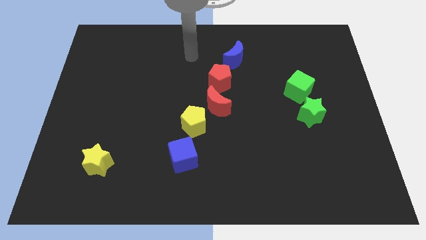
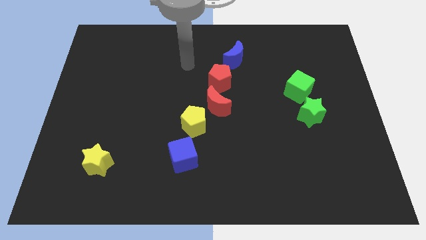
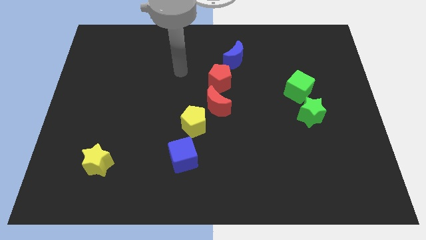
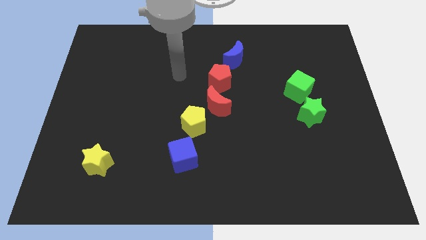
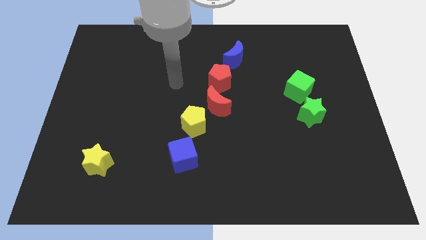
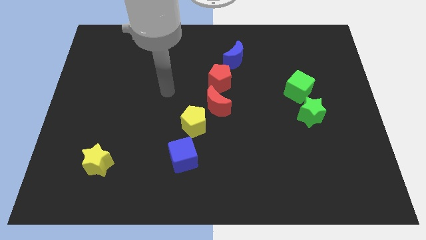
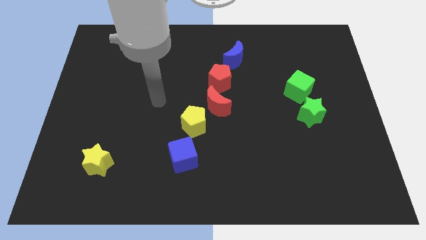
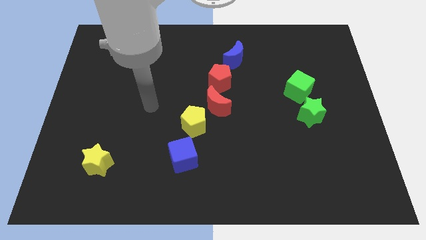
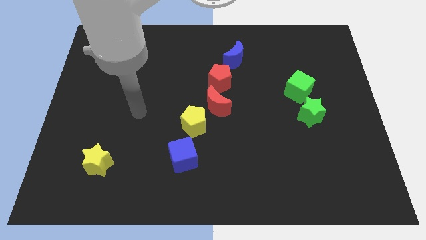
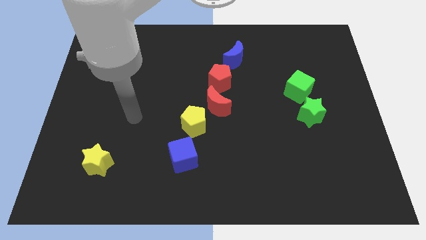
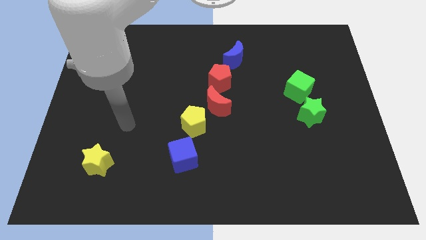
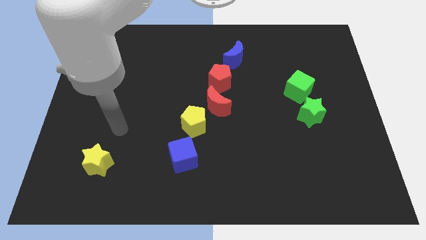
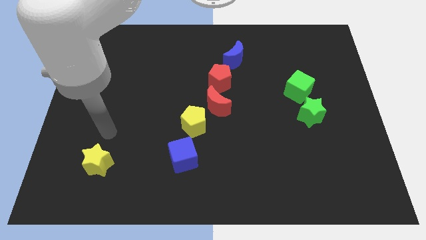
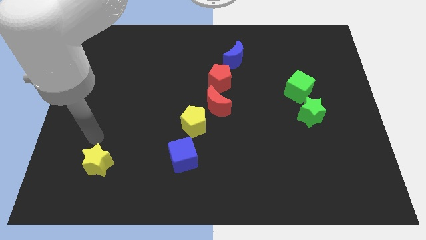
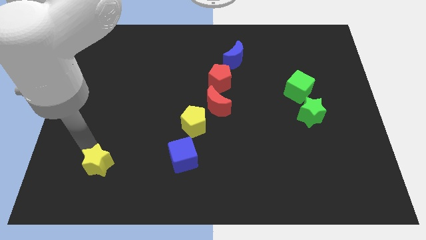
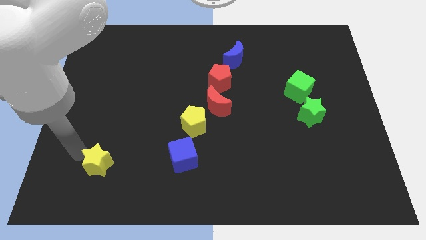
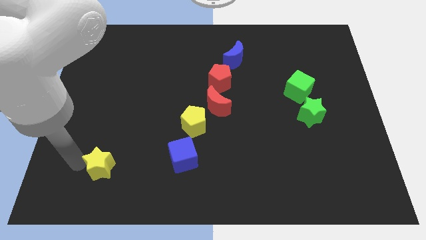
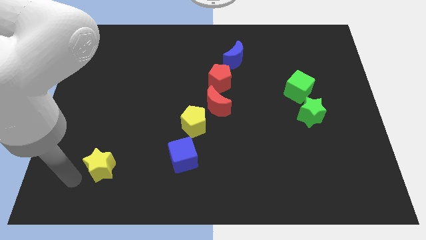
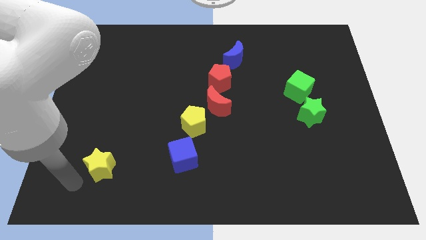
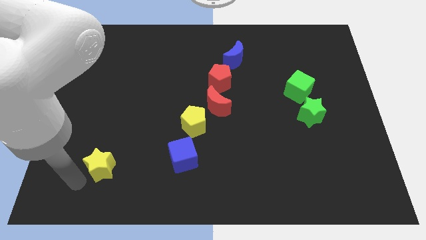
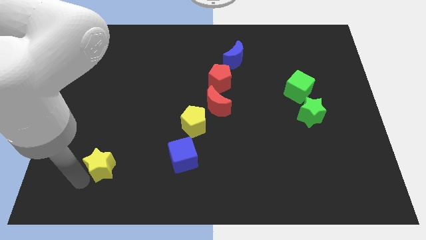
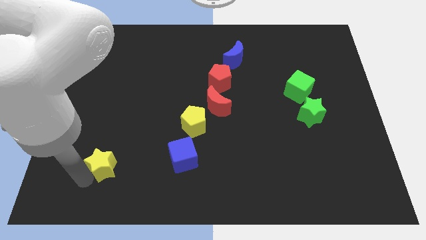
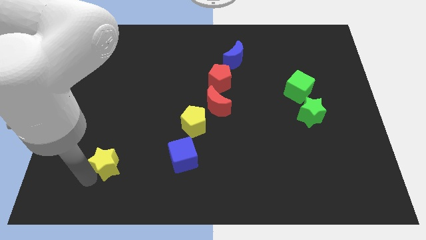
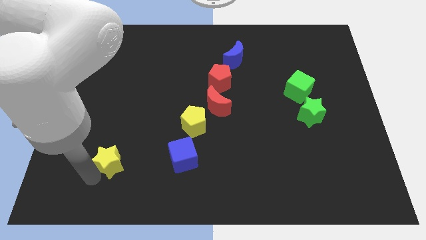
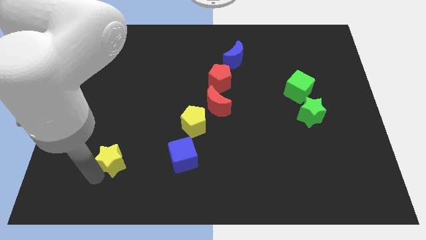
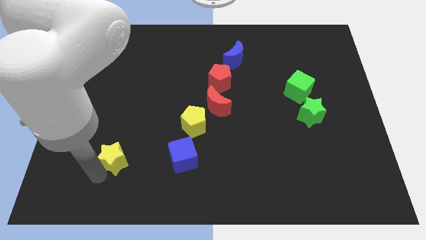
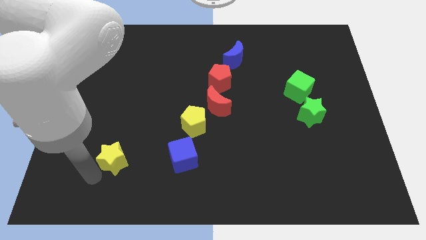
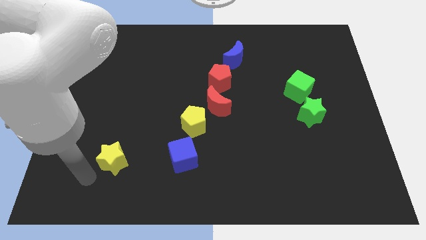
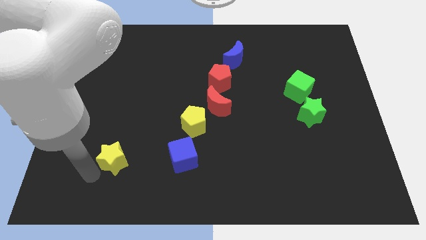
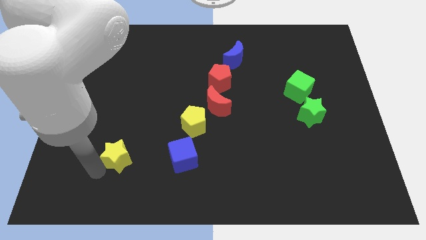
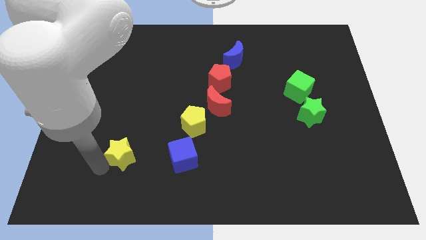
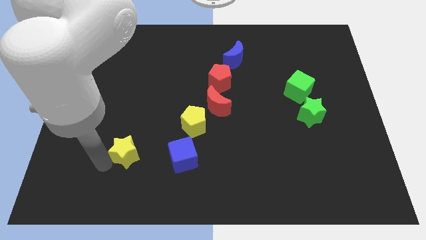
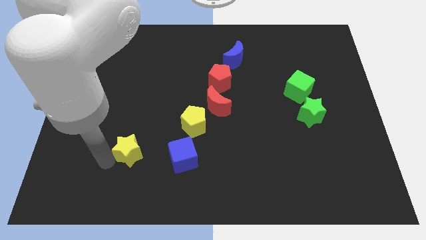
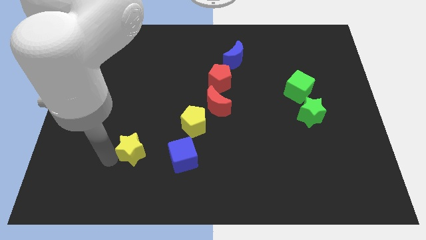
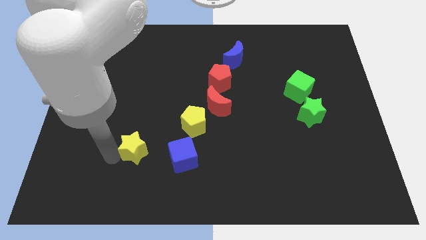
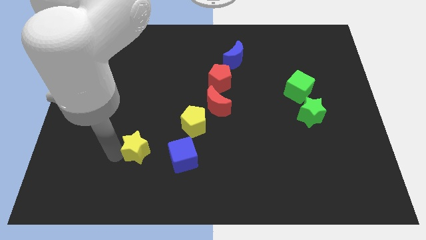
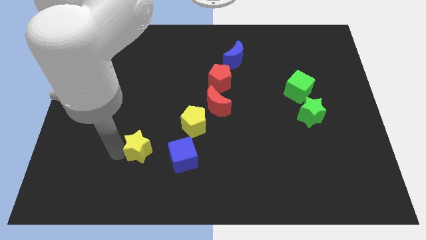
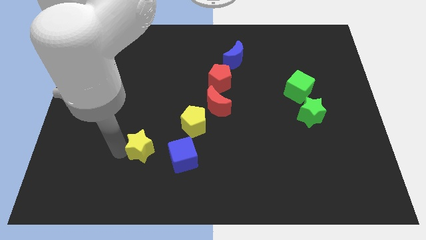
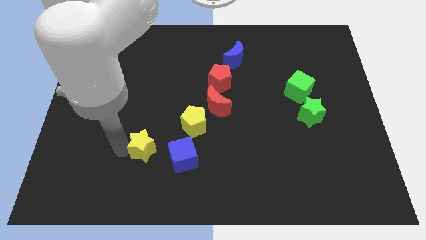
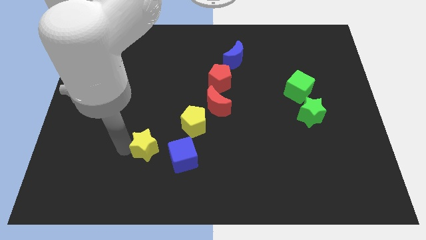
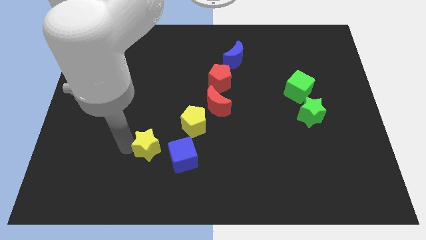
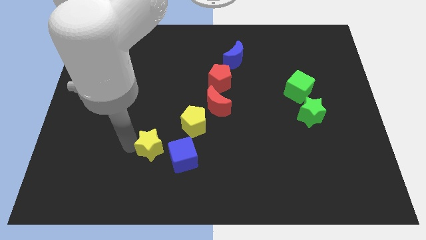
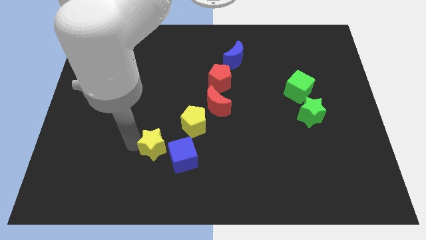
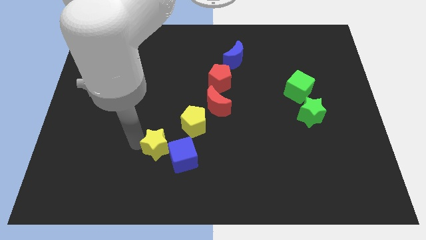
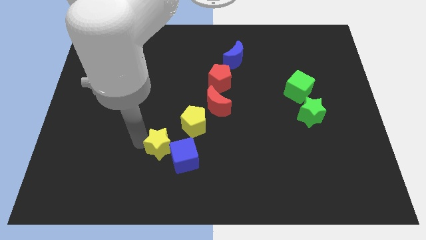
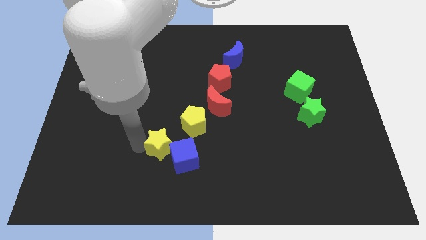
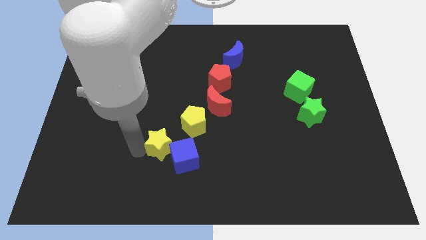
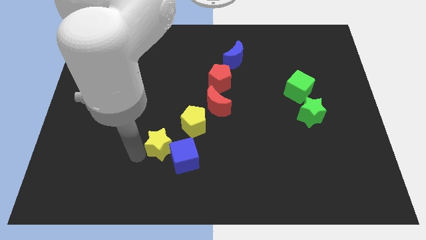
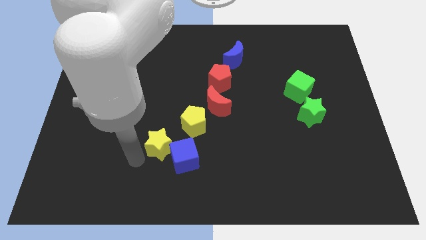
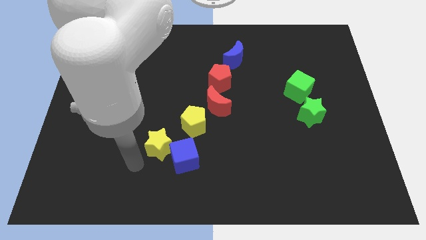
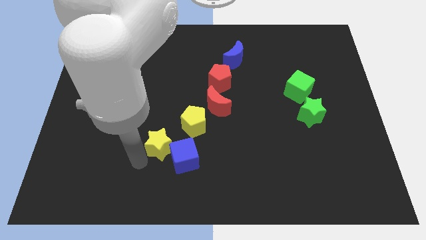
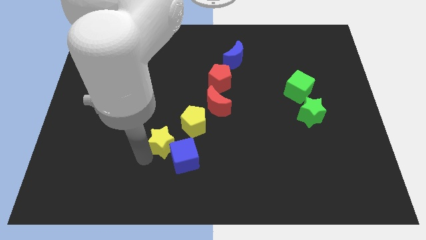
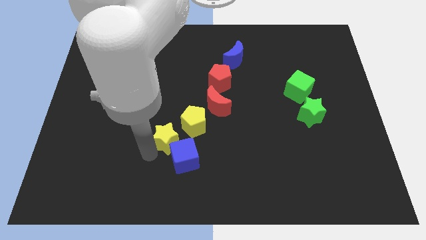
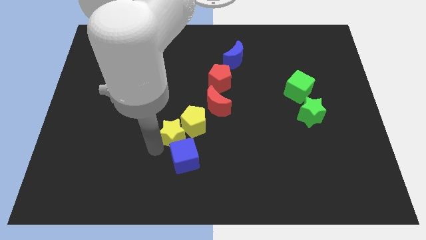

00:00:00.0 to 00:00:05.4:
slide the yellow star to the yellow pentagon

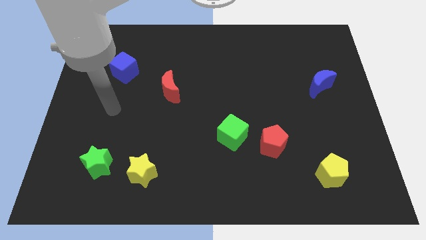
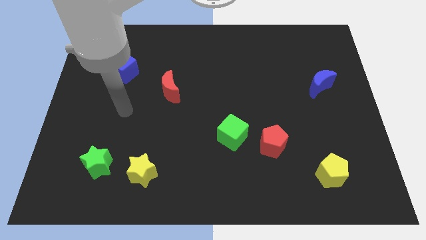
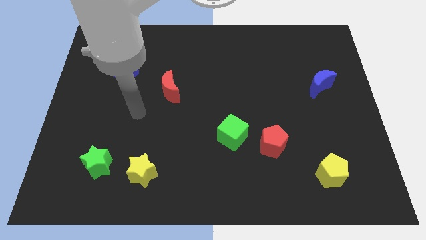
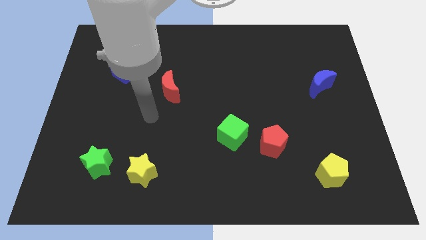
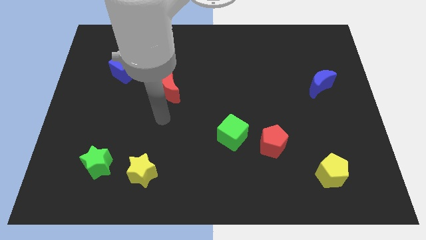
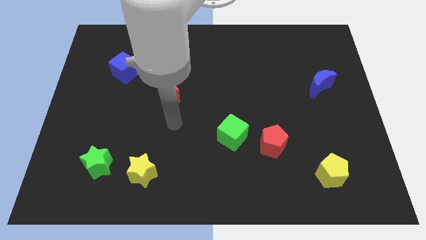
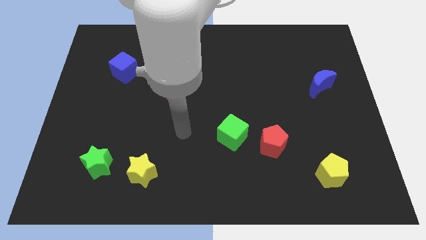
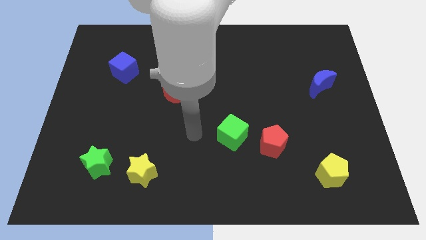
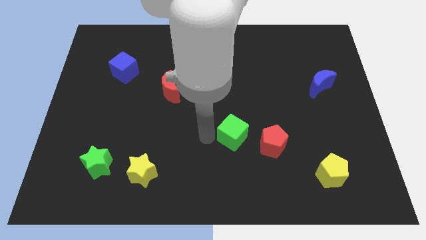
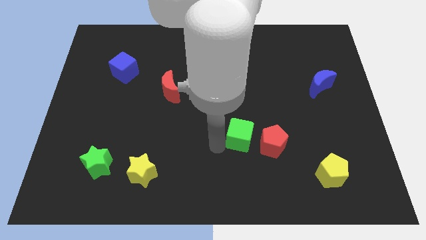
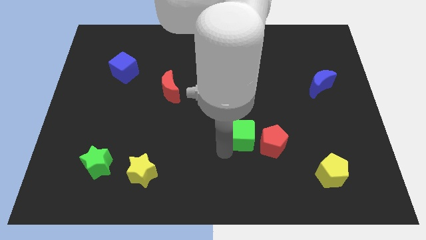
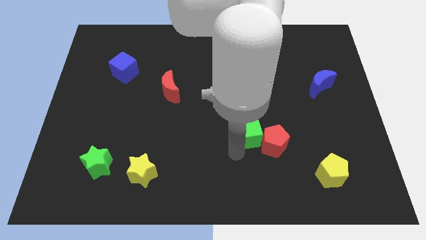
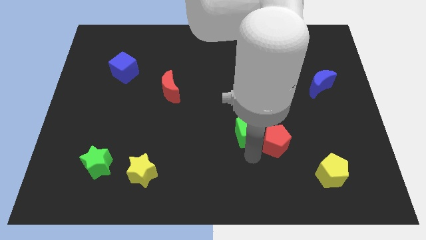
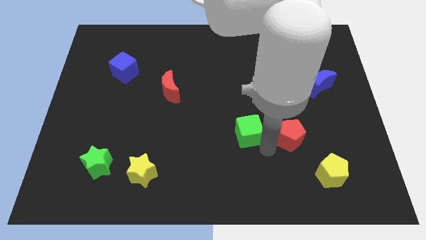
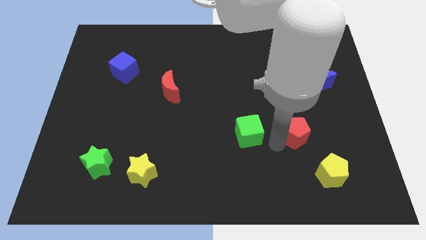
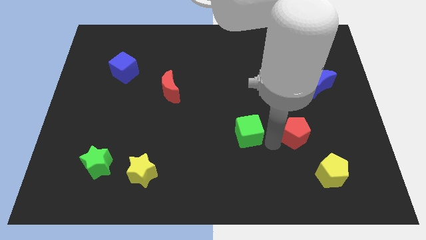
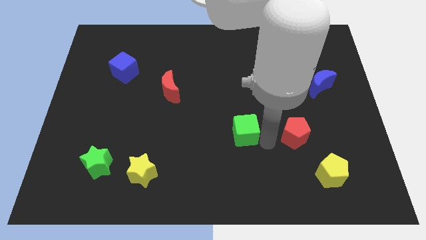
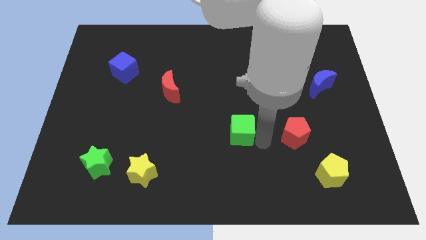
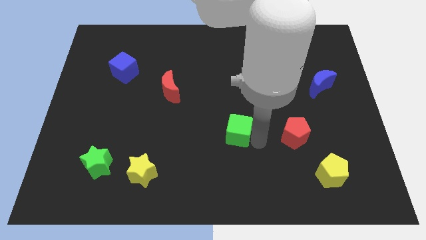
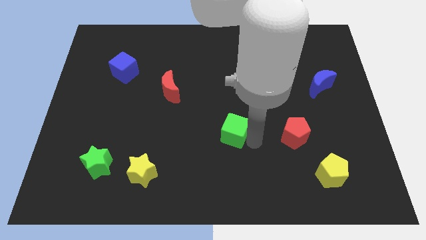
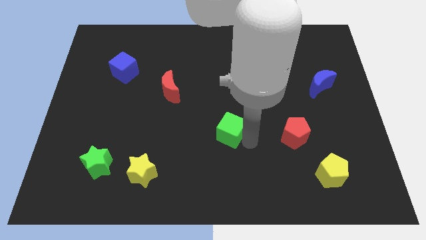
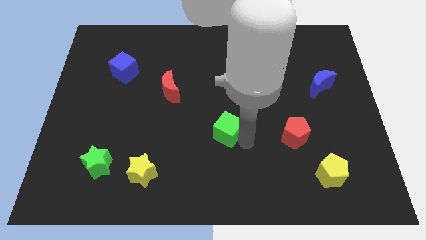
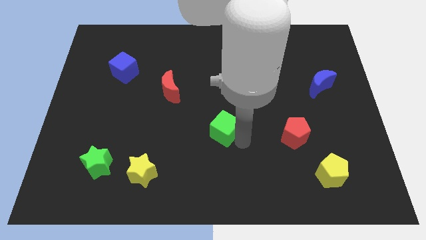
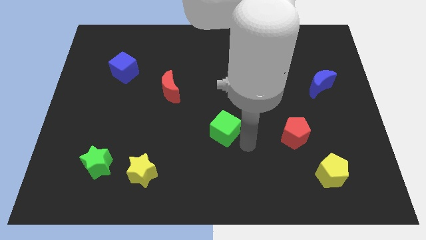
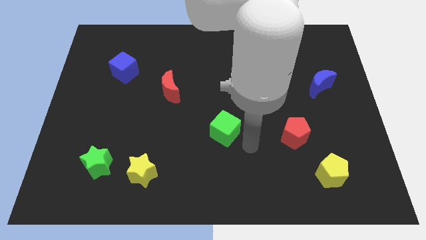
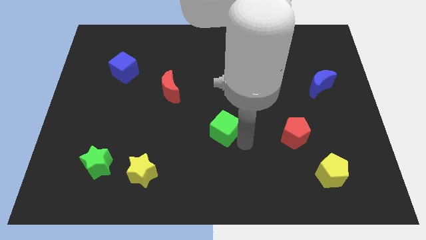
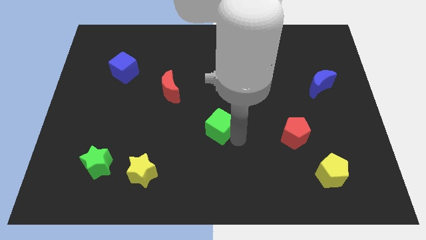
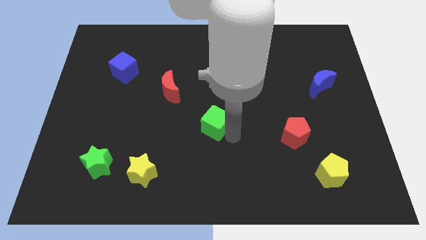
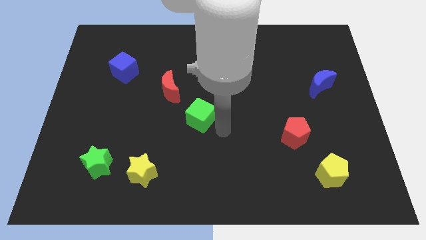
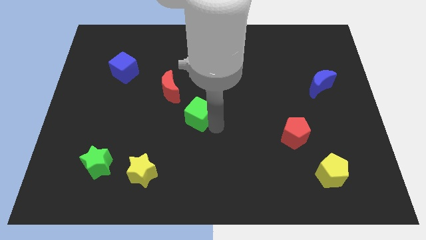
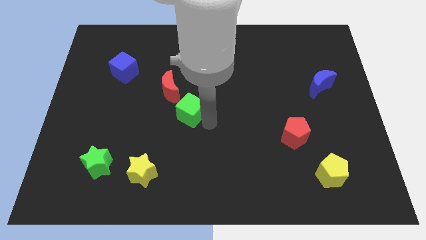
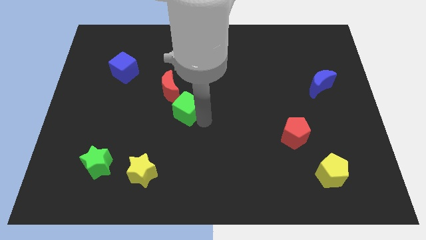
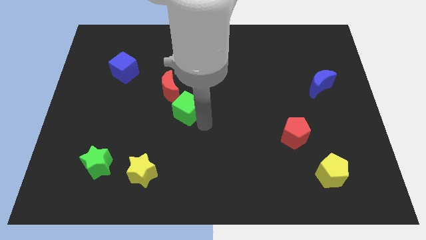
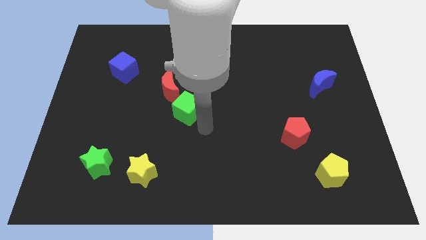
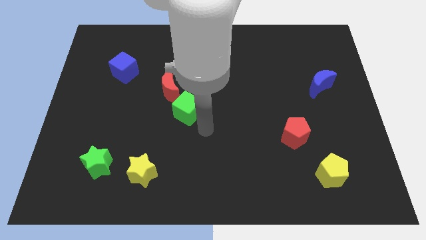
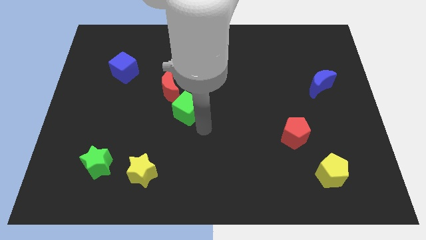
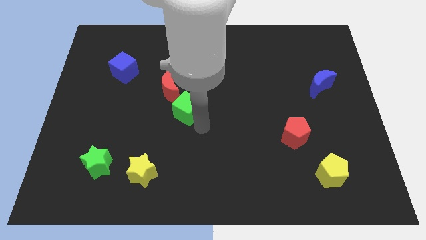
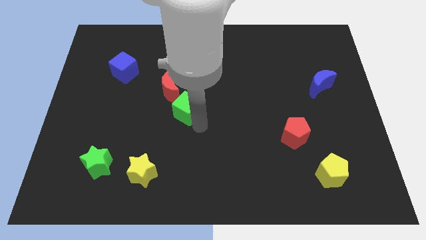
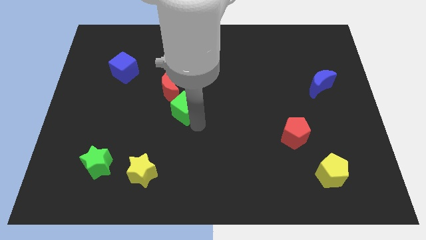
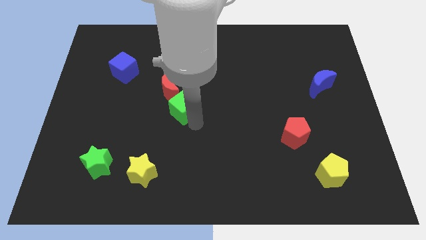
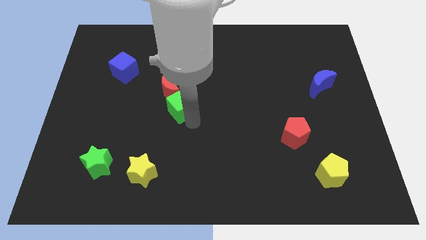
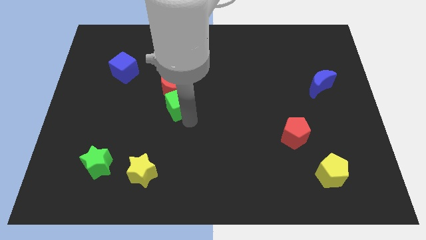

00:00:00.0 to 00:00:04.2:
move the green cube to the red moon
